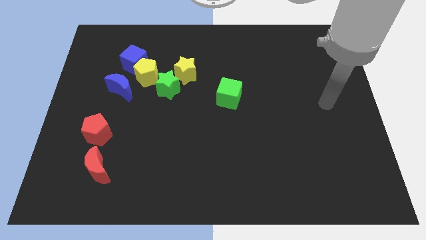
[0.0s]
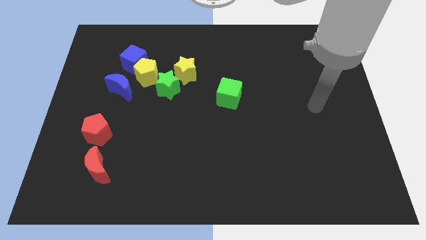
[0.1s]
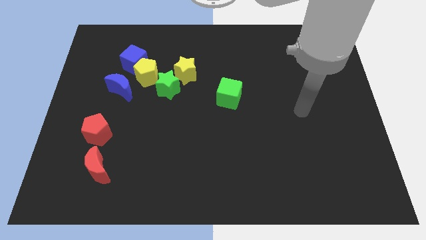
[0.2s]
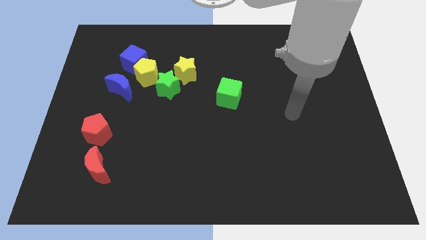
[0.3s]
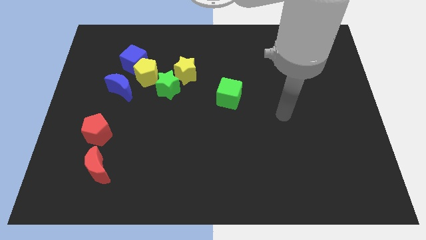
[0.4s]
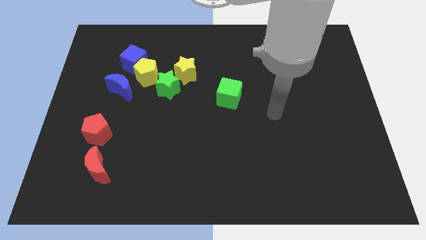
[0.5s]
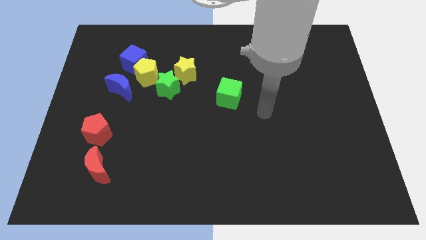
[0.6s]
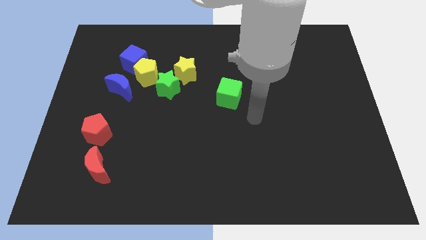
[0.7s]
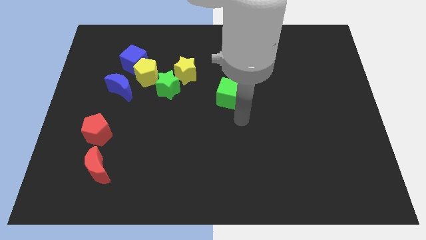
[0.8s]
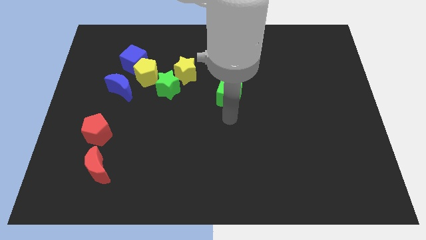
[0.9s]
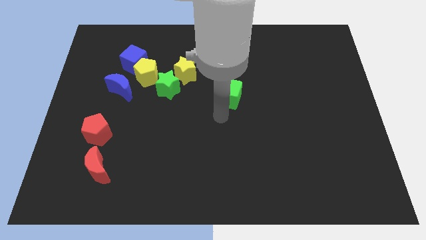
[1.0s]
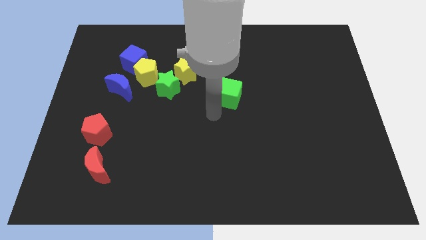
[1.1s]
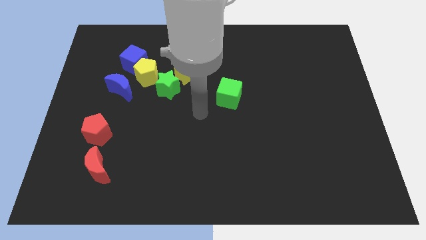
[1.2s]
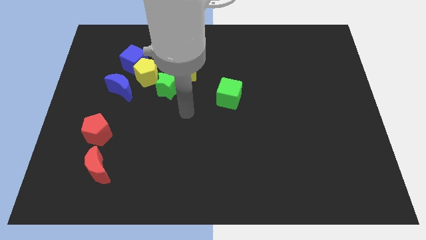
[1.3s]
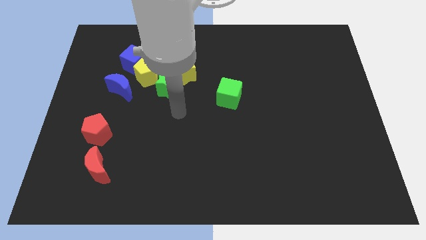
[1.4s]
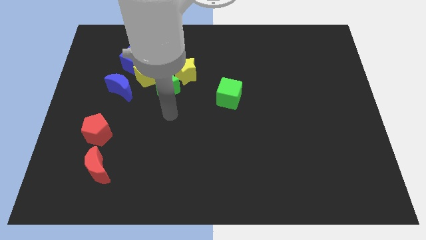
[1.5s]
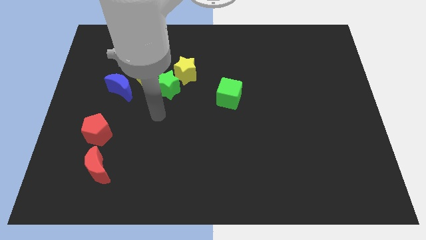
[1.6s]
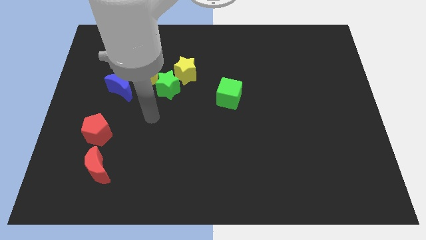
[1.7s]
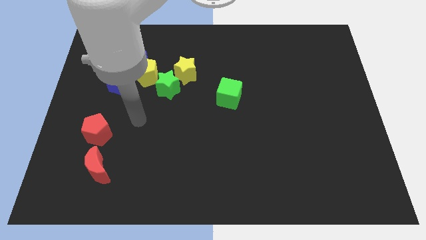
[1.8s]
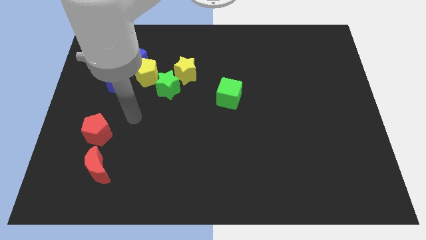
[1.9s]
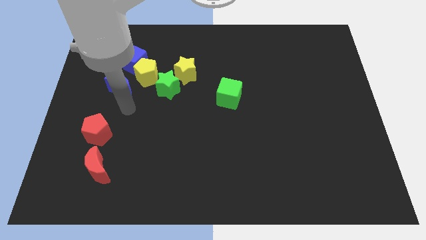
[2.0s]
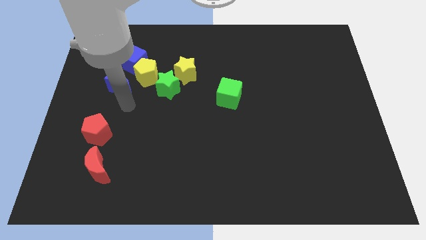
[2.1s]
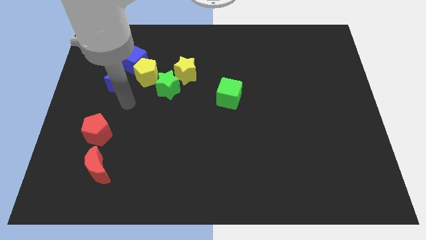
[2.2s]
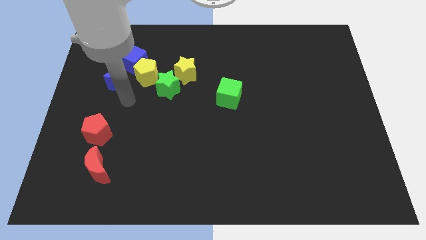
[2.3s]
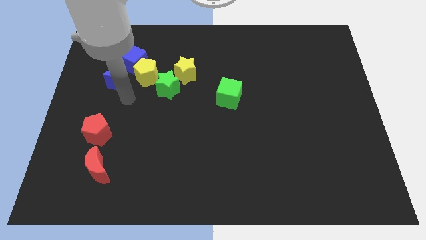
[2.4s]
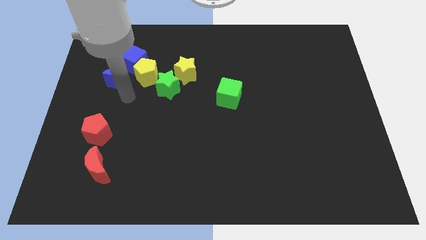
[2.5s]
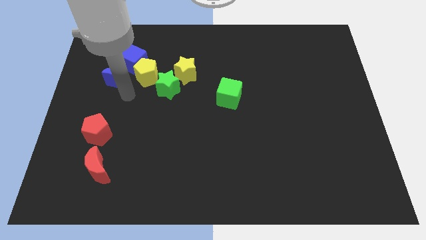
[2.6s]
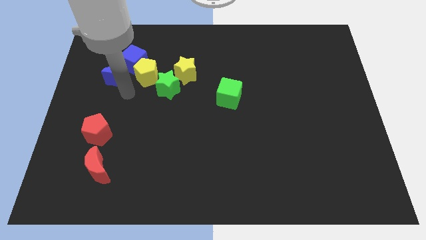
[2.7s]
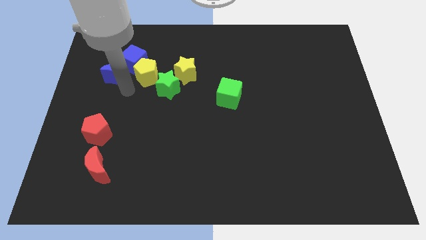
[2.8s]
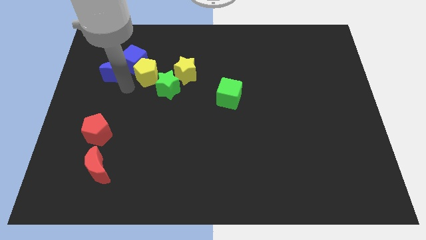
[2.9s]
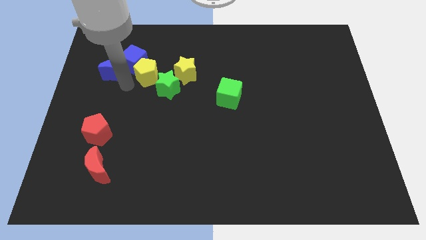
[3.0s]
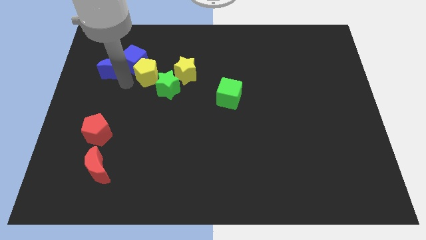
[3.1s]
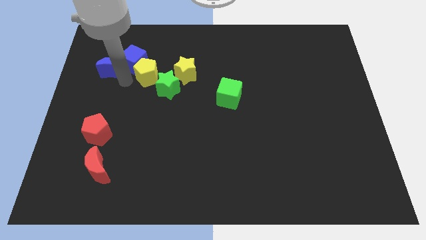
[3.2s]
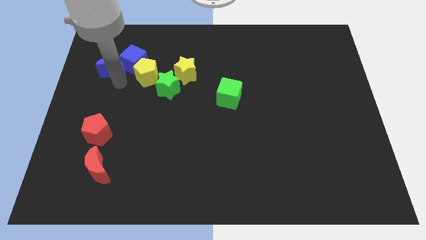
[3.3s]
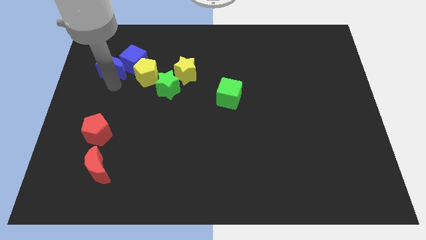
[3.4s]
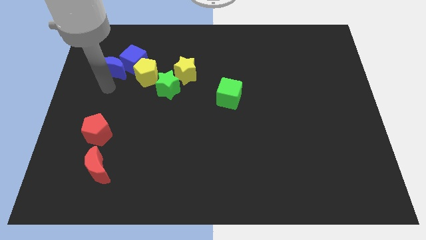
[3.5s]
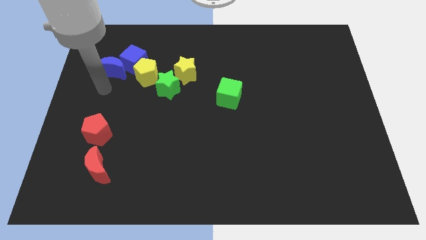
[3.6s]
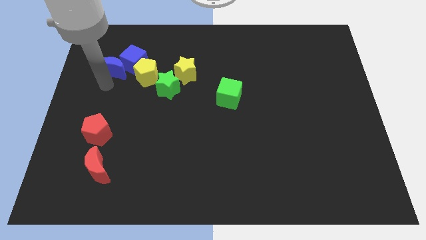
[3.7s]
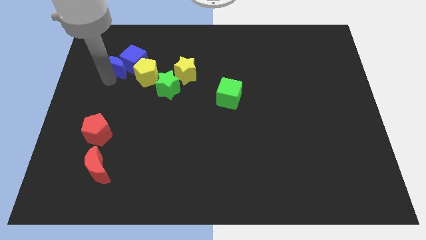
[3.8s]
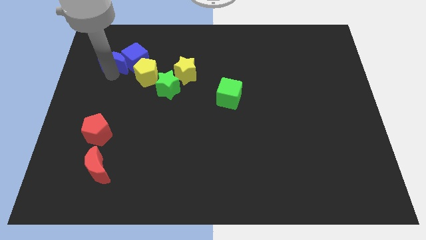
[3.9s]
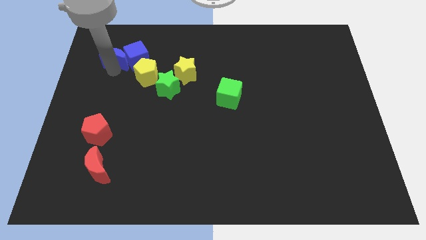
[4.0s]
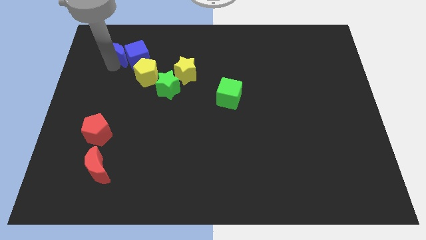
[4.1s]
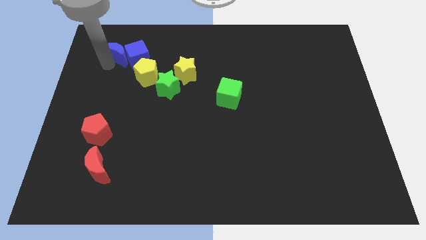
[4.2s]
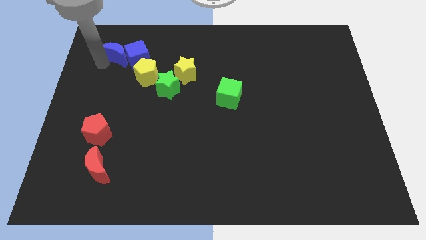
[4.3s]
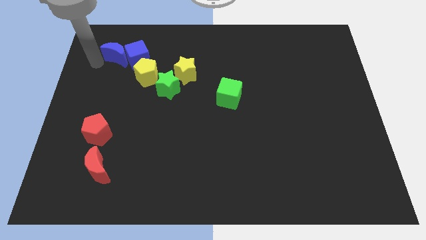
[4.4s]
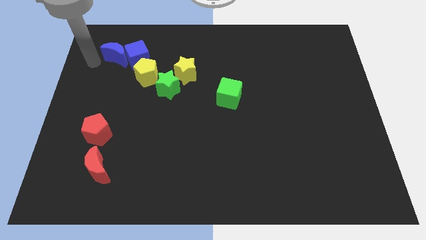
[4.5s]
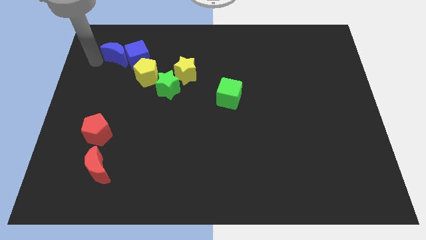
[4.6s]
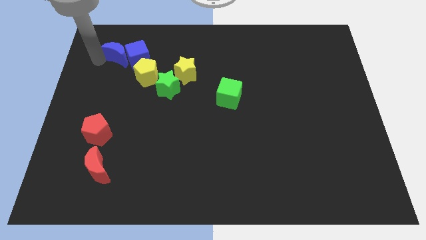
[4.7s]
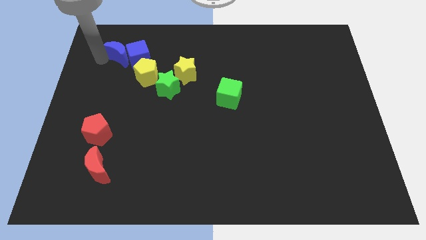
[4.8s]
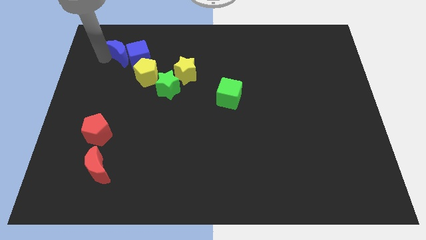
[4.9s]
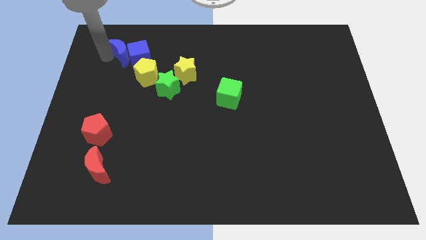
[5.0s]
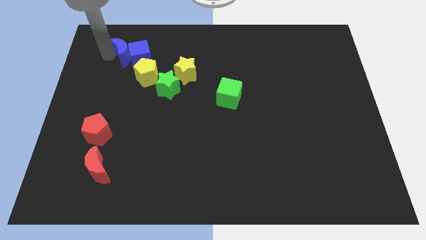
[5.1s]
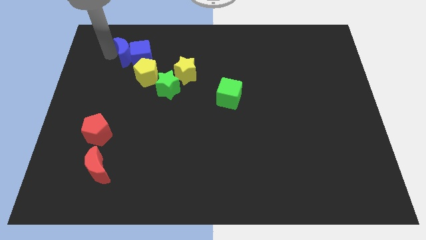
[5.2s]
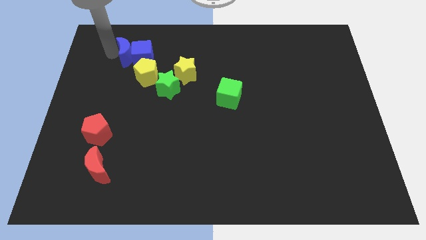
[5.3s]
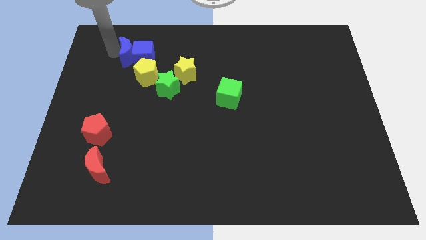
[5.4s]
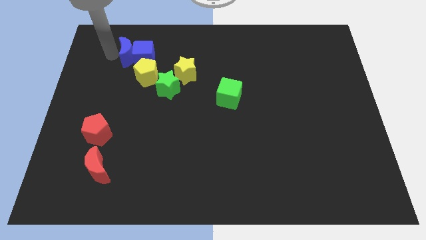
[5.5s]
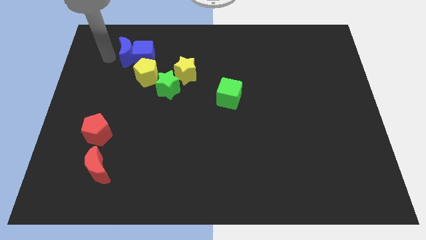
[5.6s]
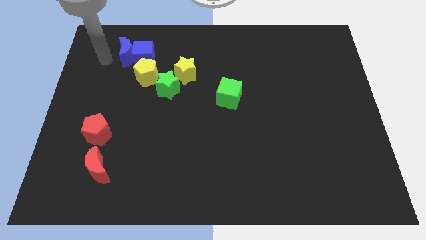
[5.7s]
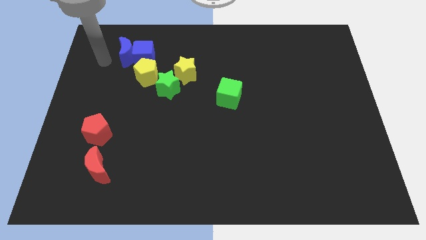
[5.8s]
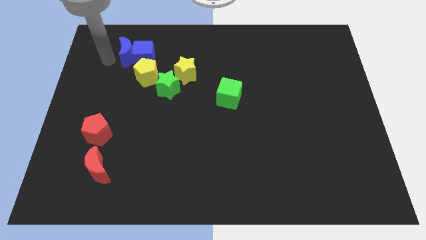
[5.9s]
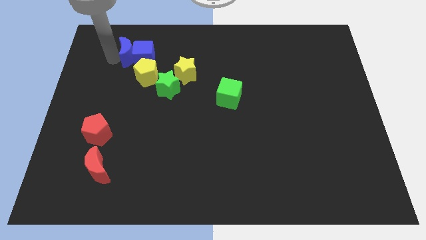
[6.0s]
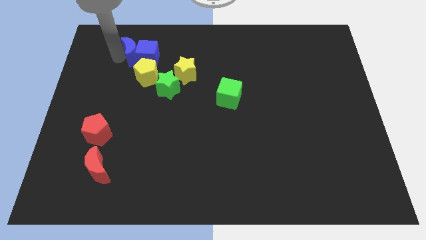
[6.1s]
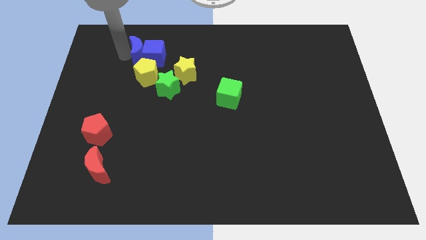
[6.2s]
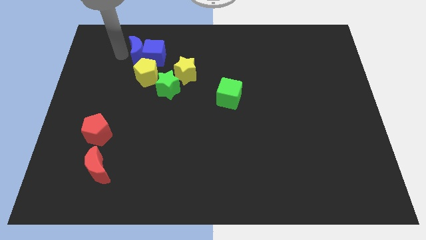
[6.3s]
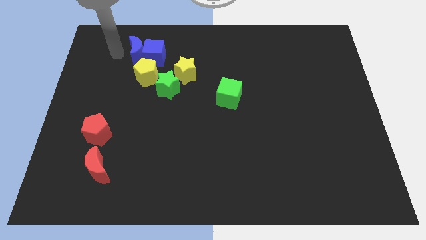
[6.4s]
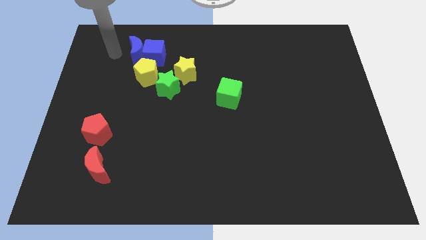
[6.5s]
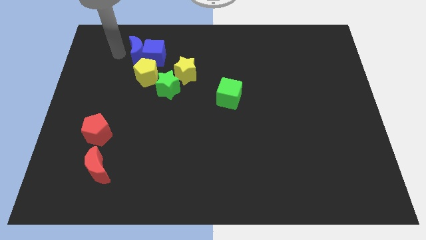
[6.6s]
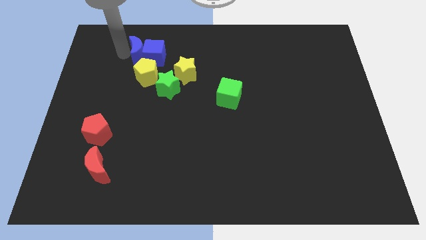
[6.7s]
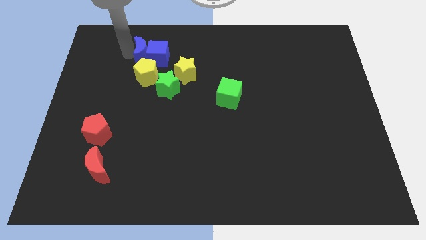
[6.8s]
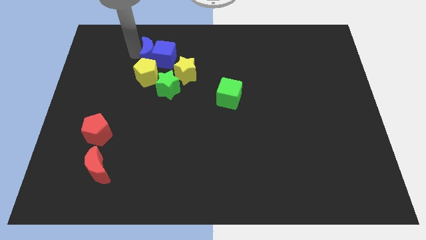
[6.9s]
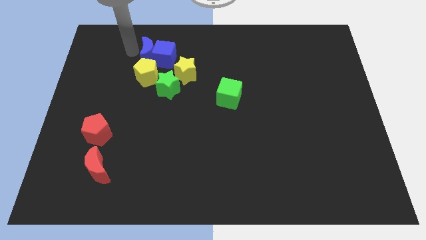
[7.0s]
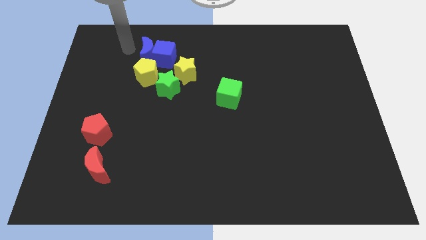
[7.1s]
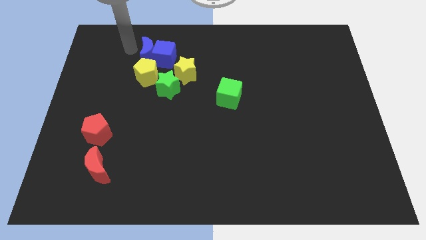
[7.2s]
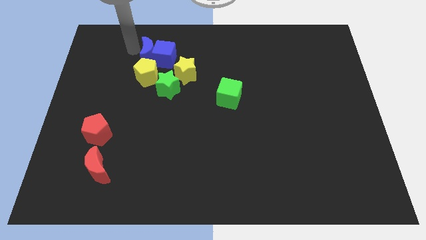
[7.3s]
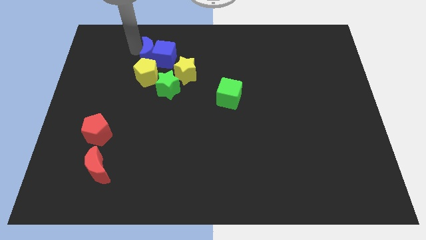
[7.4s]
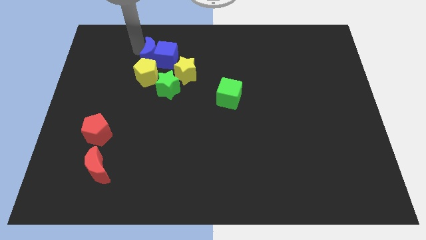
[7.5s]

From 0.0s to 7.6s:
slide the blue moon diagonally up and to the right of the yellow pentagon
